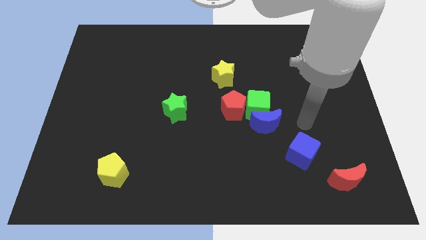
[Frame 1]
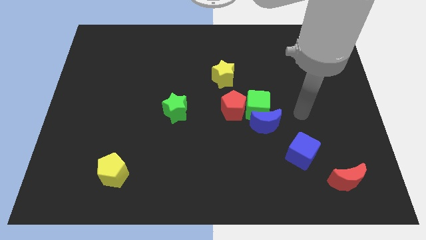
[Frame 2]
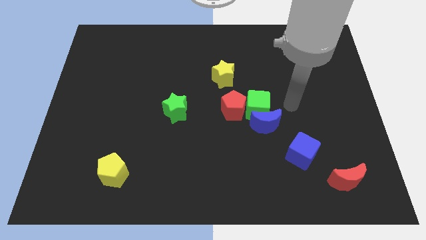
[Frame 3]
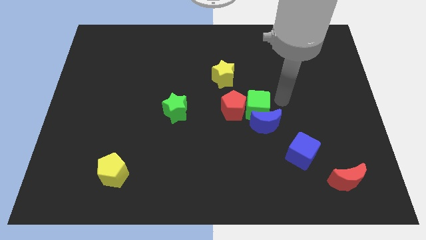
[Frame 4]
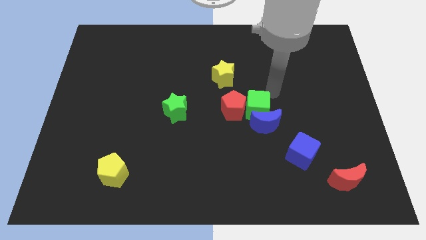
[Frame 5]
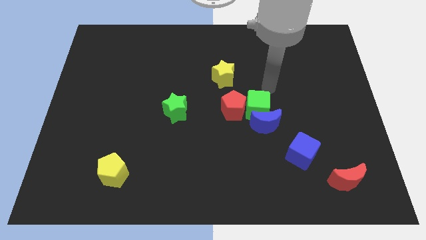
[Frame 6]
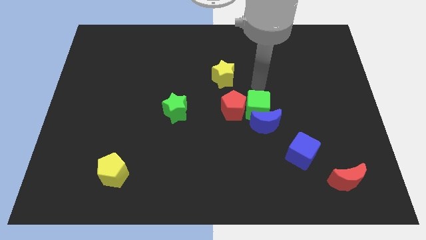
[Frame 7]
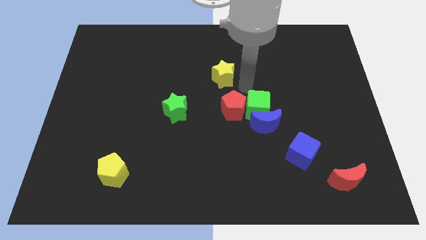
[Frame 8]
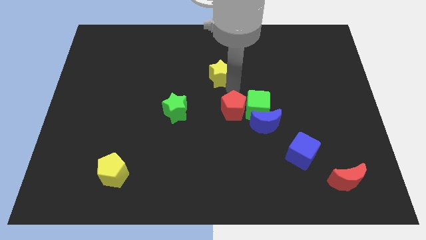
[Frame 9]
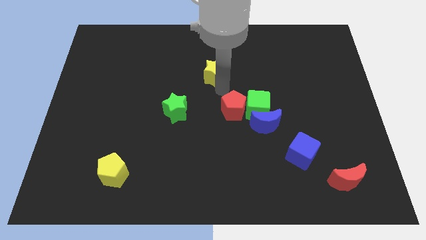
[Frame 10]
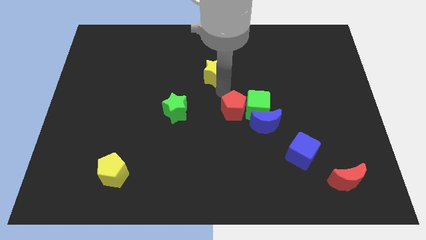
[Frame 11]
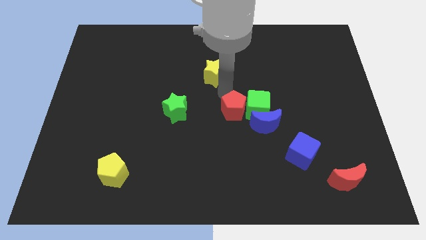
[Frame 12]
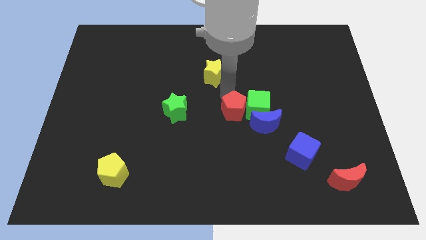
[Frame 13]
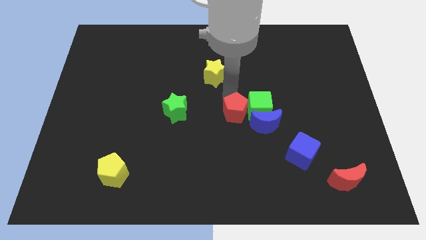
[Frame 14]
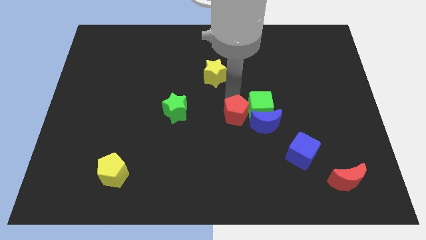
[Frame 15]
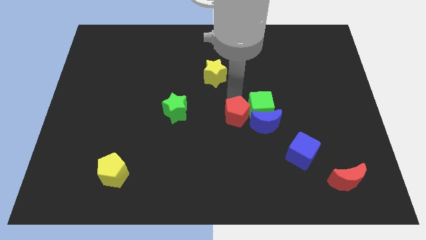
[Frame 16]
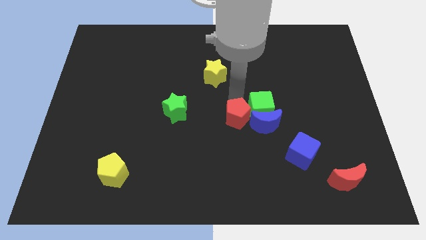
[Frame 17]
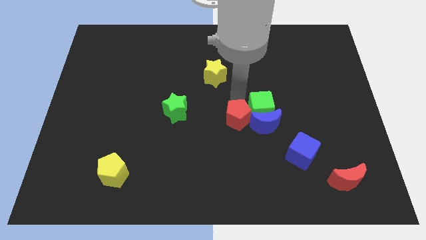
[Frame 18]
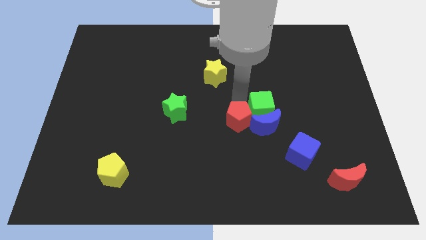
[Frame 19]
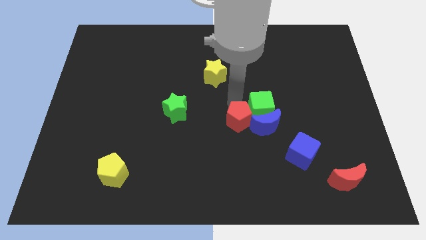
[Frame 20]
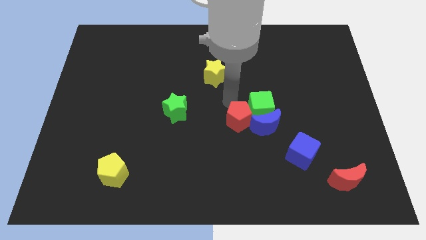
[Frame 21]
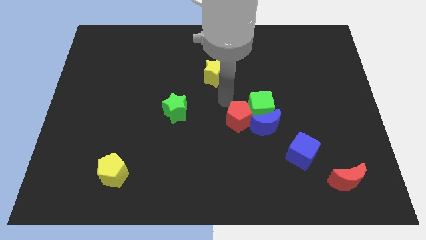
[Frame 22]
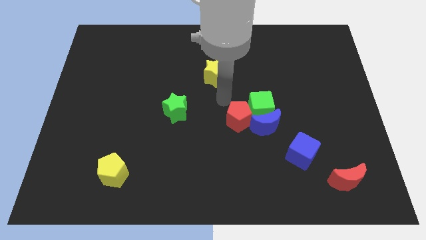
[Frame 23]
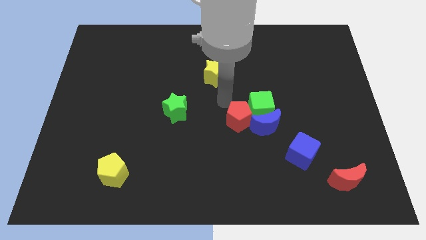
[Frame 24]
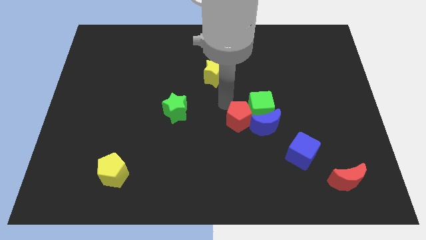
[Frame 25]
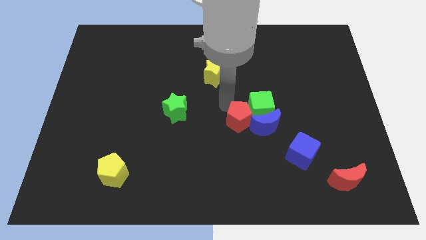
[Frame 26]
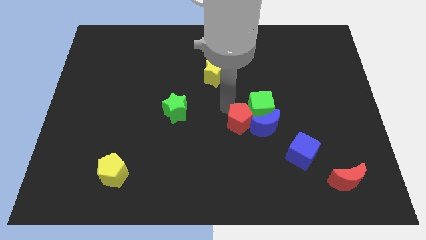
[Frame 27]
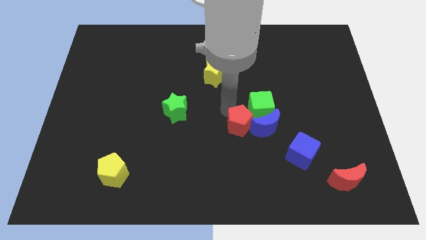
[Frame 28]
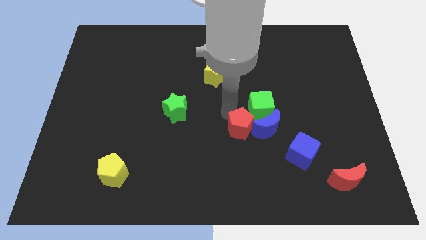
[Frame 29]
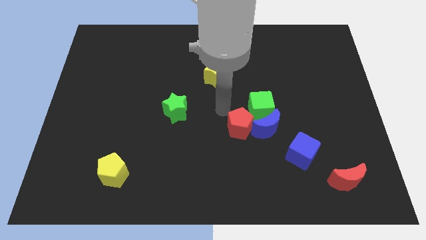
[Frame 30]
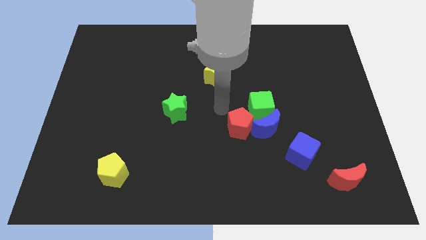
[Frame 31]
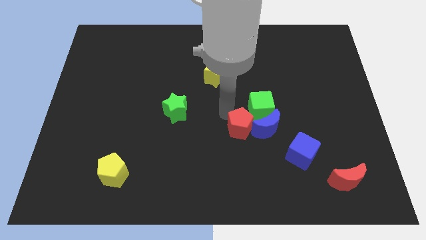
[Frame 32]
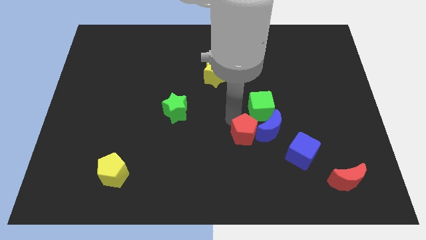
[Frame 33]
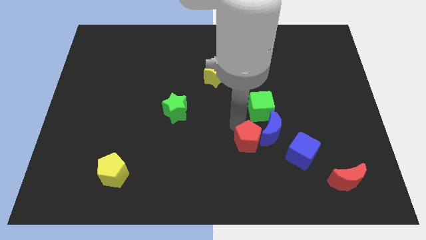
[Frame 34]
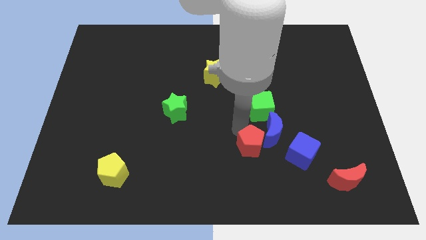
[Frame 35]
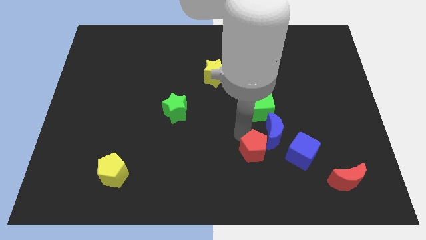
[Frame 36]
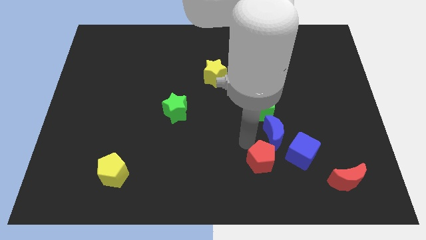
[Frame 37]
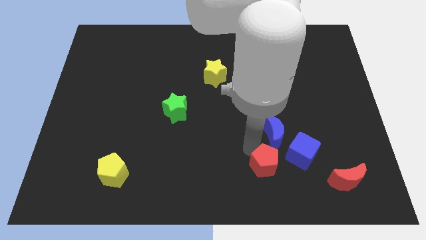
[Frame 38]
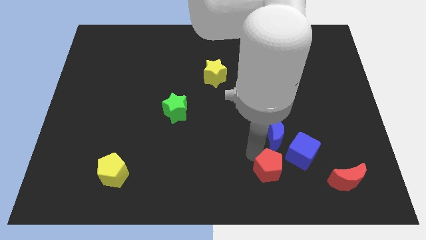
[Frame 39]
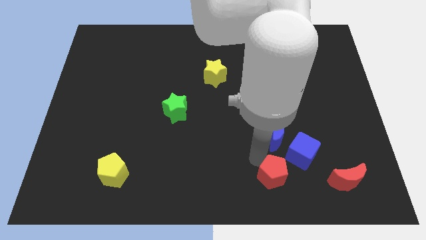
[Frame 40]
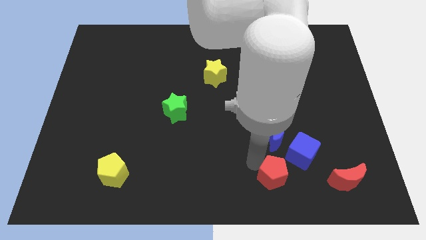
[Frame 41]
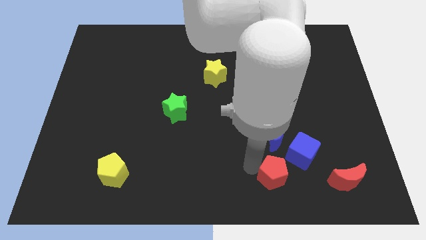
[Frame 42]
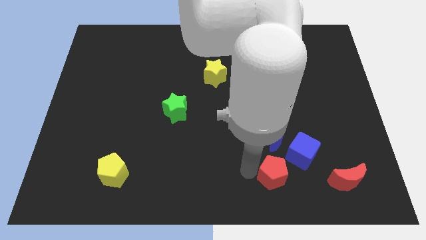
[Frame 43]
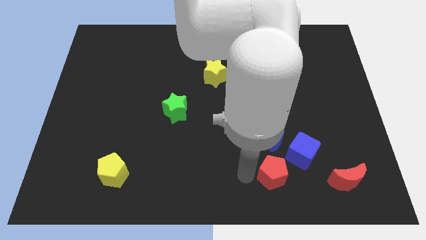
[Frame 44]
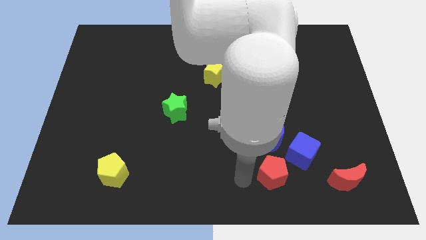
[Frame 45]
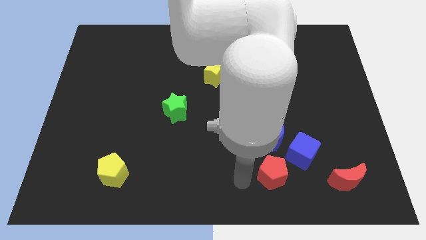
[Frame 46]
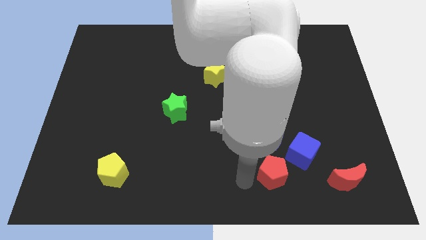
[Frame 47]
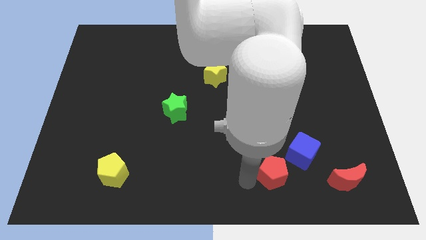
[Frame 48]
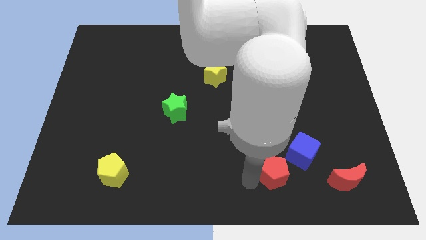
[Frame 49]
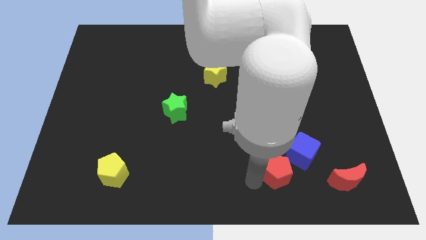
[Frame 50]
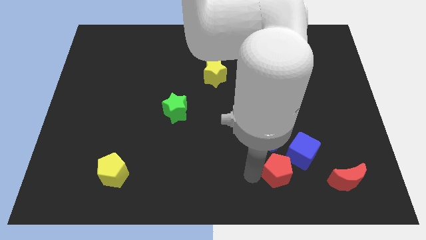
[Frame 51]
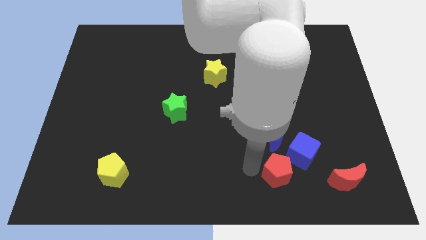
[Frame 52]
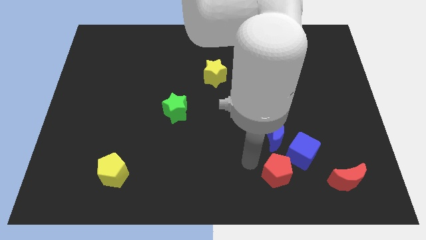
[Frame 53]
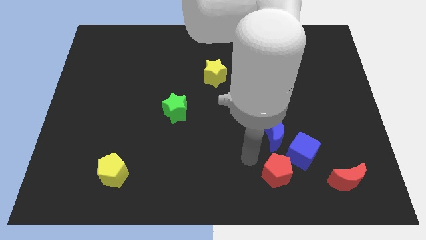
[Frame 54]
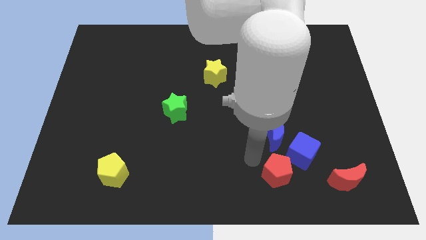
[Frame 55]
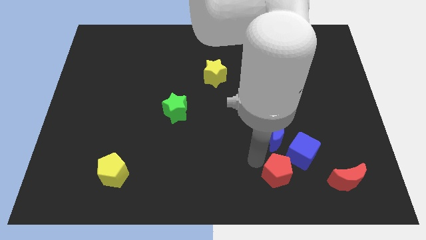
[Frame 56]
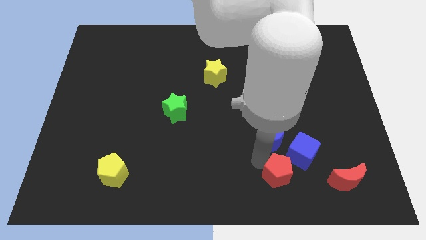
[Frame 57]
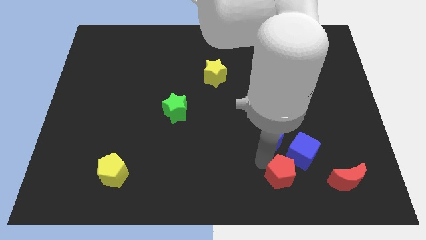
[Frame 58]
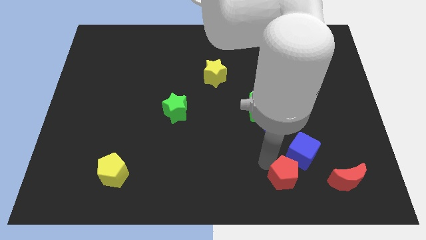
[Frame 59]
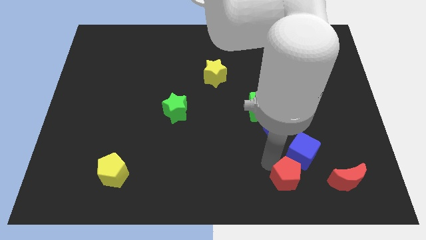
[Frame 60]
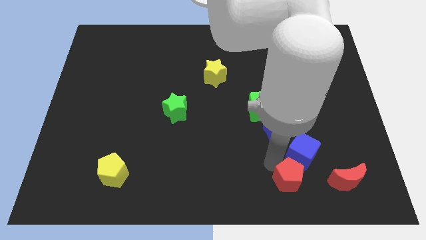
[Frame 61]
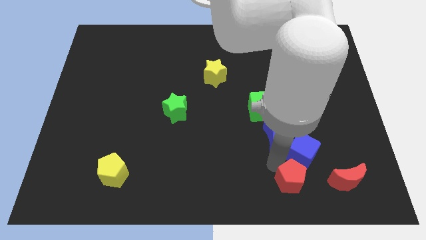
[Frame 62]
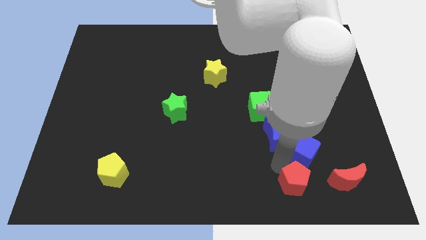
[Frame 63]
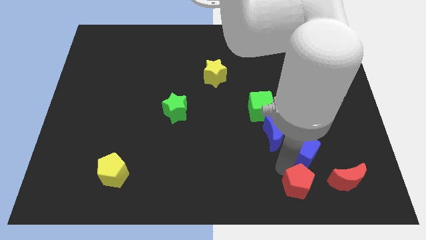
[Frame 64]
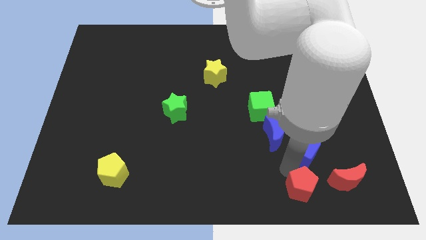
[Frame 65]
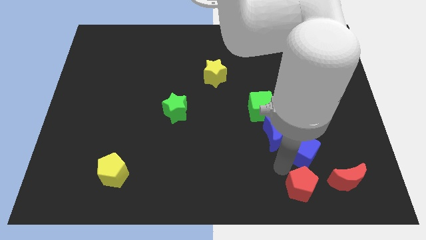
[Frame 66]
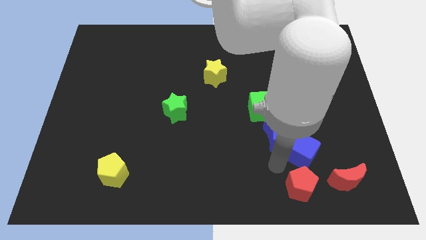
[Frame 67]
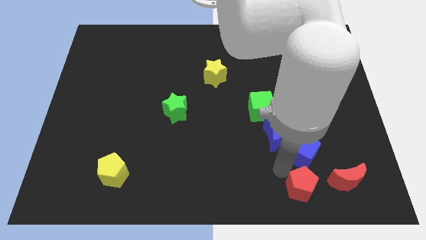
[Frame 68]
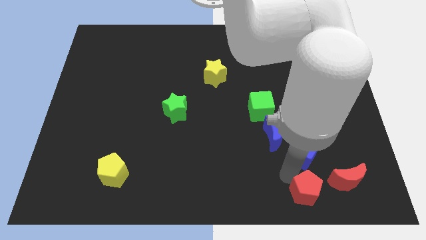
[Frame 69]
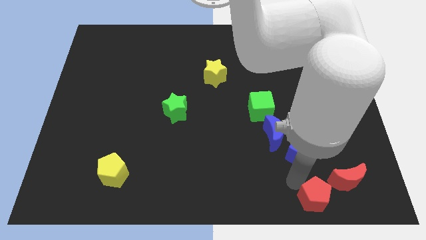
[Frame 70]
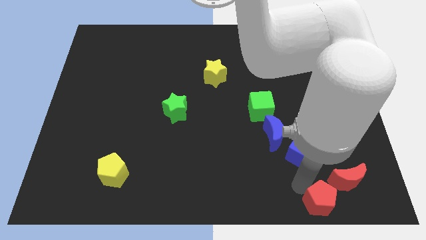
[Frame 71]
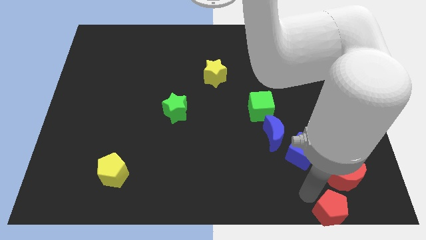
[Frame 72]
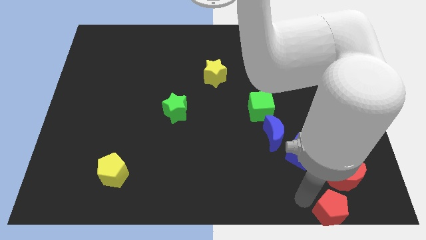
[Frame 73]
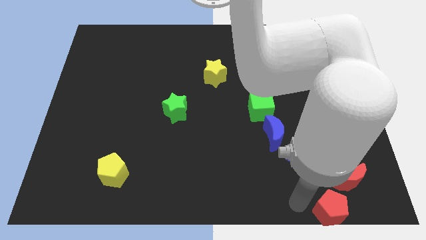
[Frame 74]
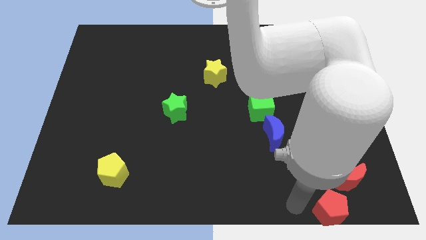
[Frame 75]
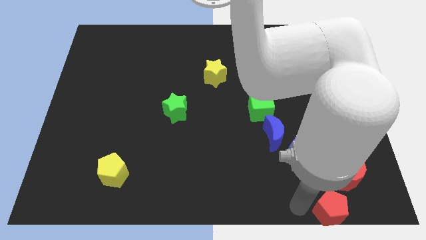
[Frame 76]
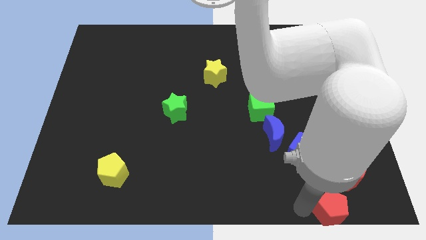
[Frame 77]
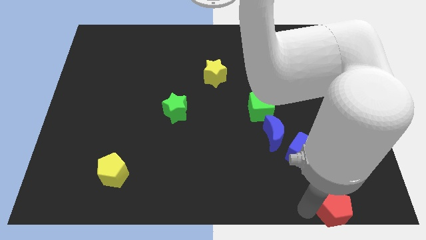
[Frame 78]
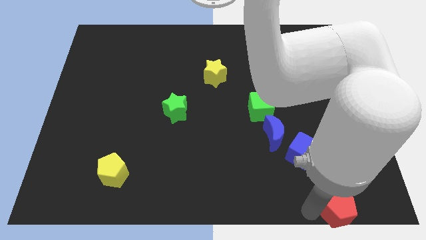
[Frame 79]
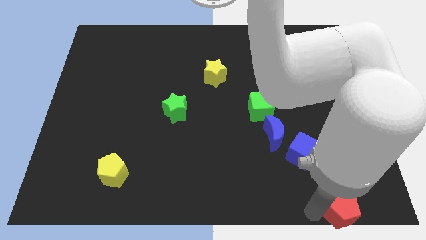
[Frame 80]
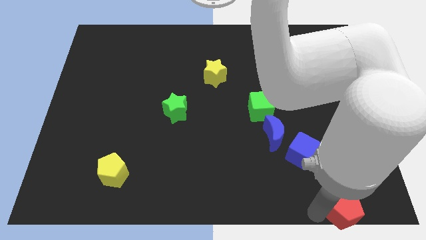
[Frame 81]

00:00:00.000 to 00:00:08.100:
slide the red pentagon to the lower right corner
